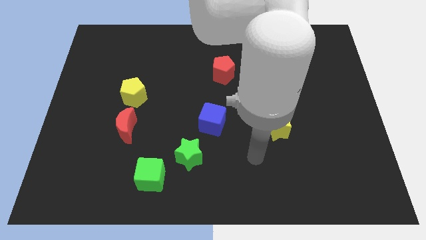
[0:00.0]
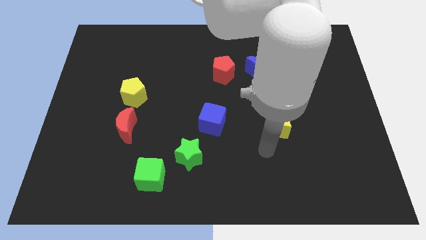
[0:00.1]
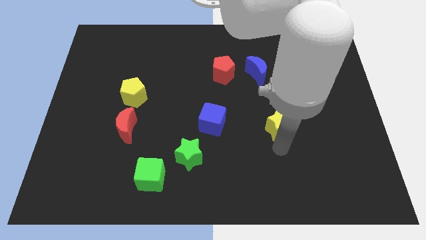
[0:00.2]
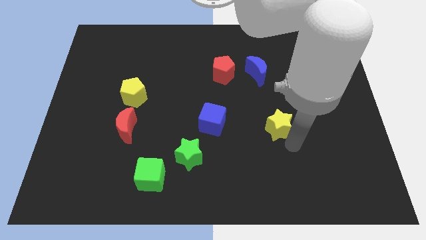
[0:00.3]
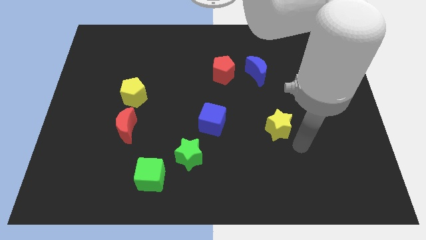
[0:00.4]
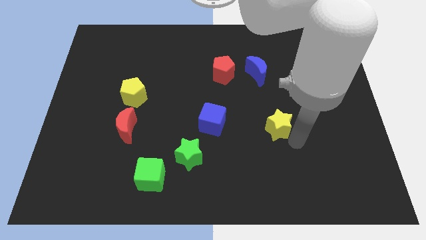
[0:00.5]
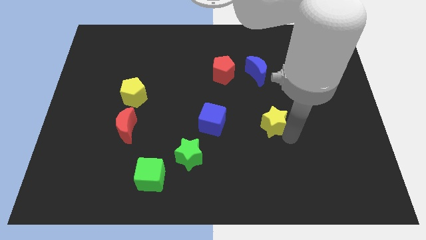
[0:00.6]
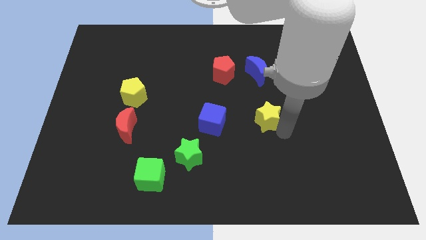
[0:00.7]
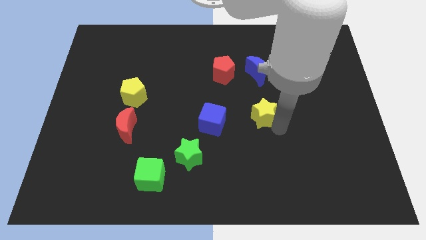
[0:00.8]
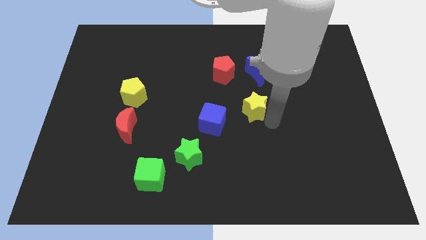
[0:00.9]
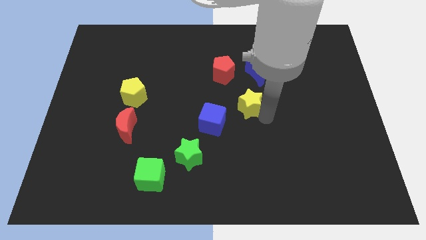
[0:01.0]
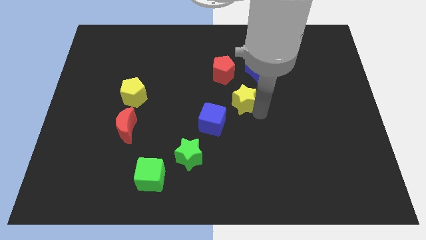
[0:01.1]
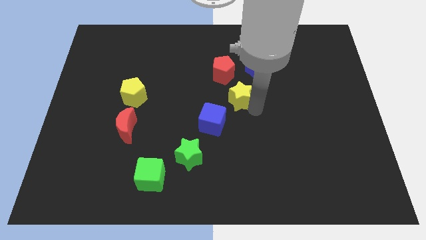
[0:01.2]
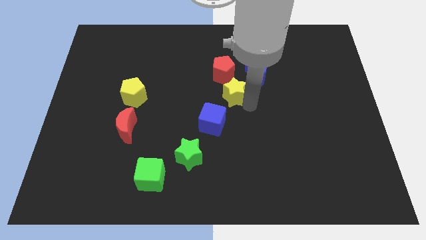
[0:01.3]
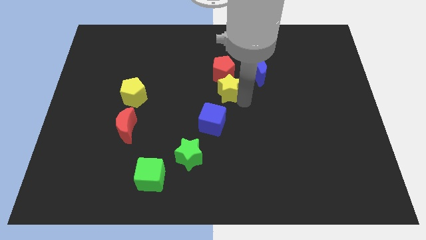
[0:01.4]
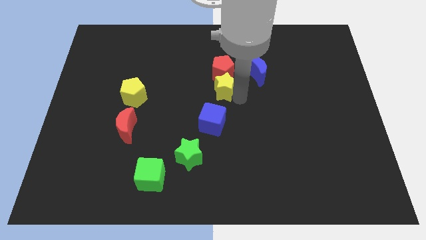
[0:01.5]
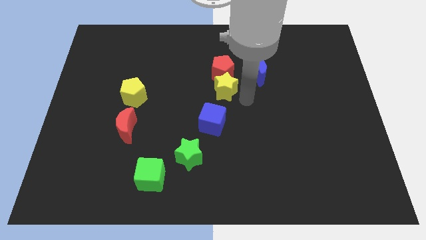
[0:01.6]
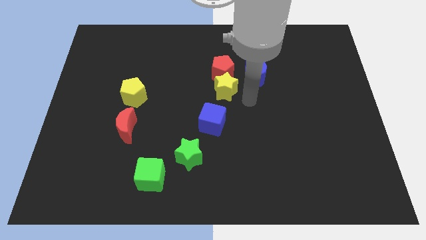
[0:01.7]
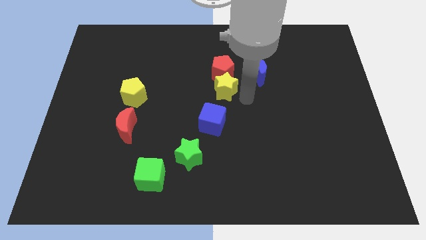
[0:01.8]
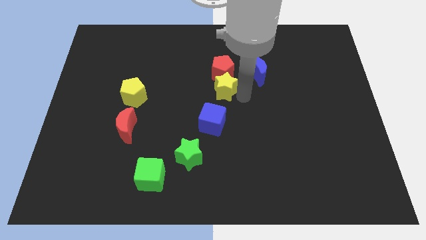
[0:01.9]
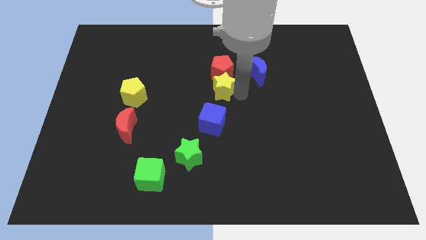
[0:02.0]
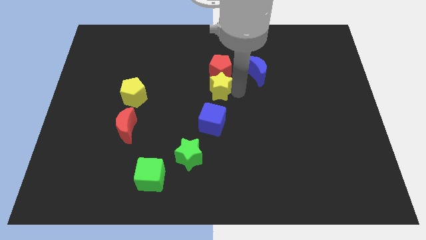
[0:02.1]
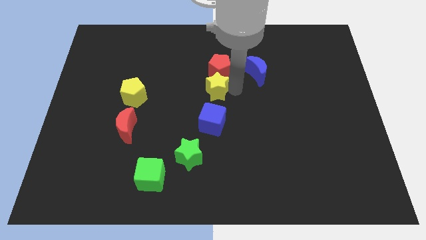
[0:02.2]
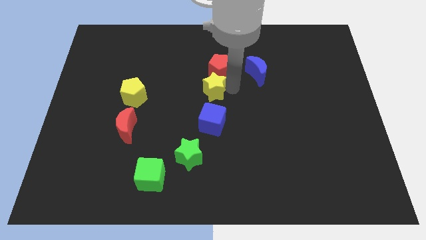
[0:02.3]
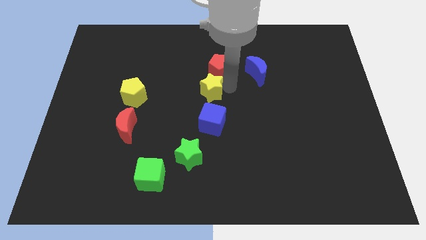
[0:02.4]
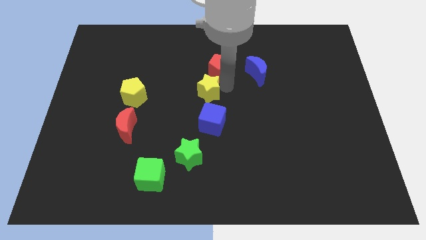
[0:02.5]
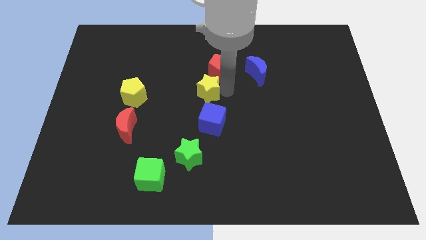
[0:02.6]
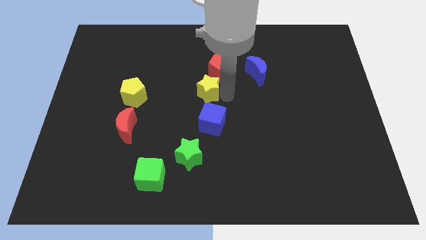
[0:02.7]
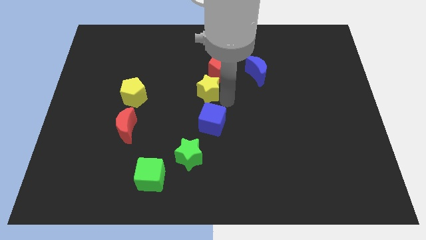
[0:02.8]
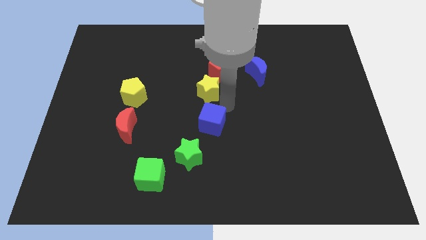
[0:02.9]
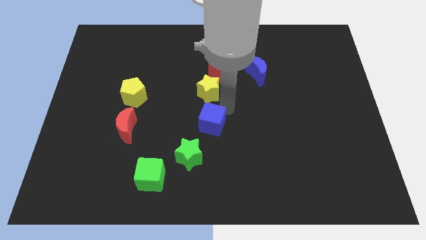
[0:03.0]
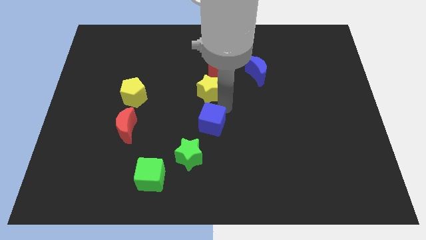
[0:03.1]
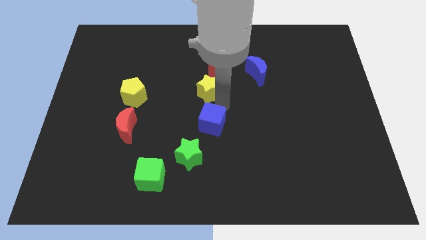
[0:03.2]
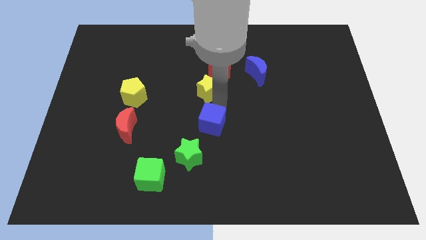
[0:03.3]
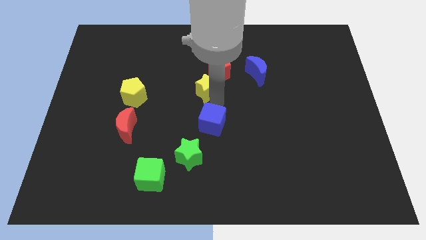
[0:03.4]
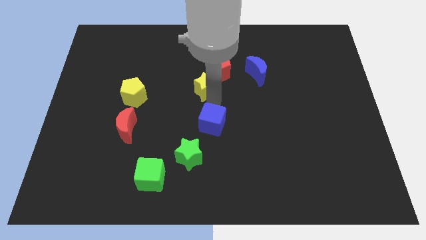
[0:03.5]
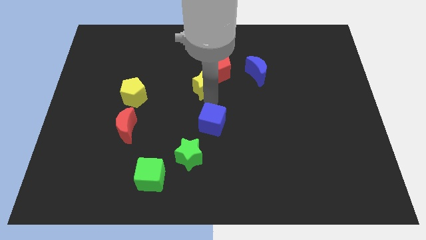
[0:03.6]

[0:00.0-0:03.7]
move the yellow star upwards and to the left diagonally

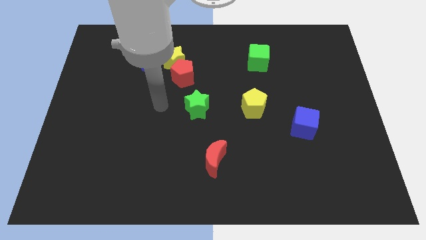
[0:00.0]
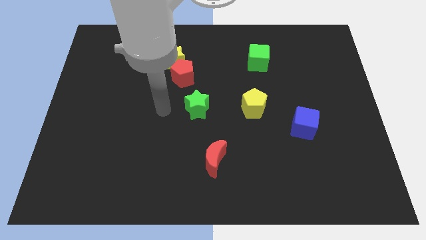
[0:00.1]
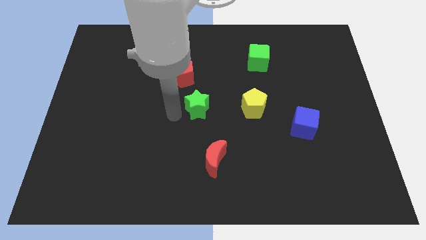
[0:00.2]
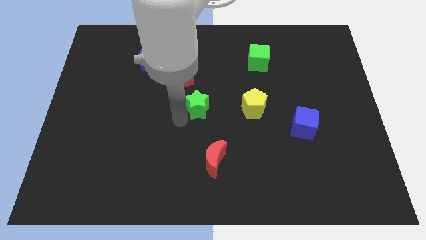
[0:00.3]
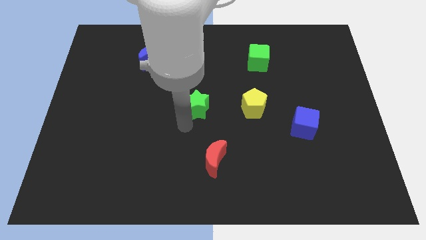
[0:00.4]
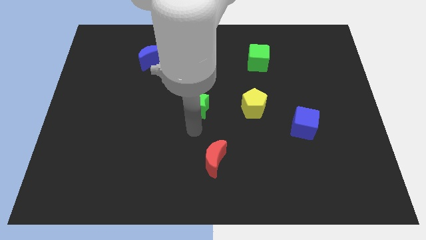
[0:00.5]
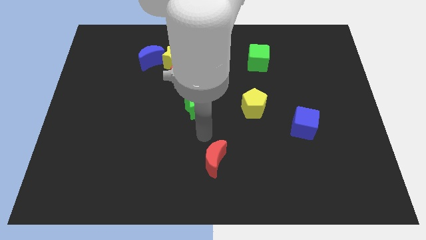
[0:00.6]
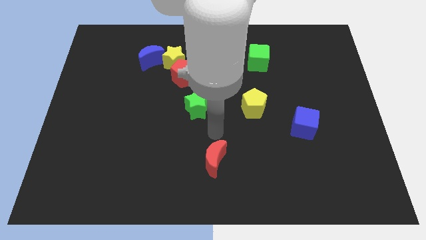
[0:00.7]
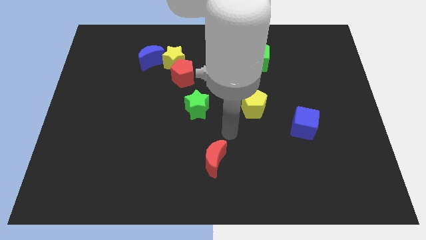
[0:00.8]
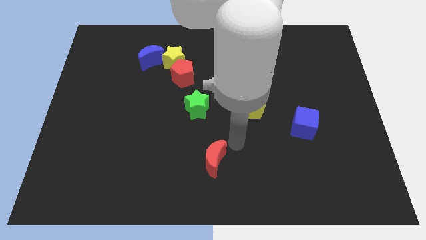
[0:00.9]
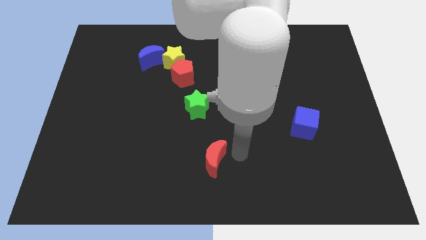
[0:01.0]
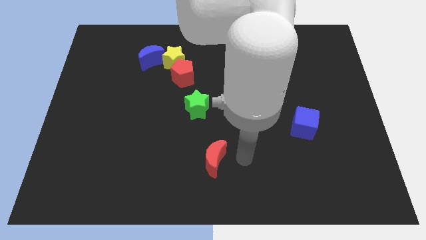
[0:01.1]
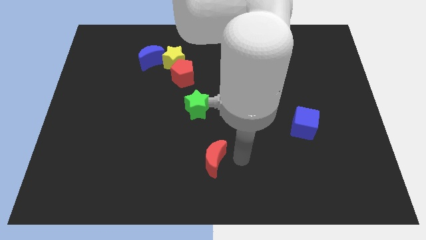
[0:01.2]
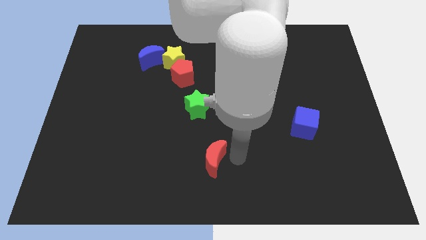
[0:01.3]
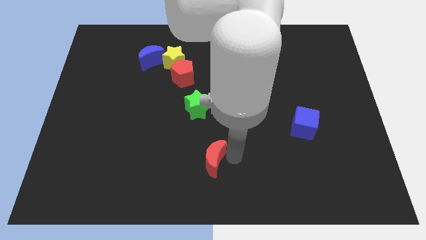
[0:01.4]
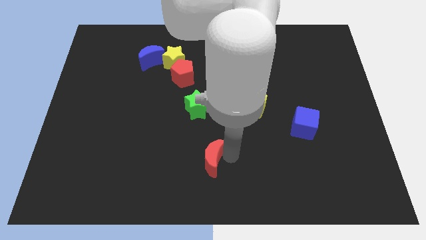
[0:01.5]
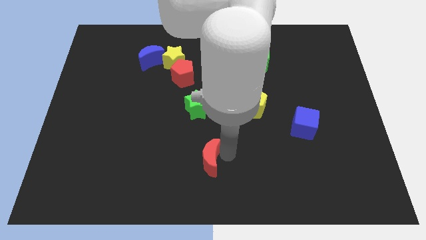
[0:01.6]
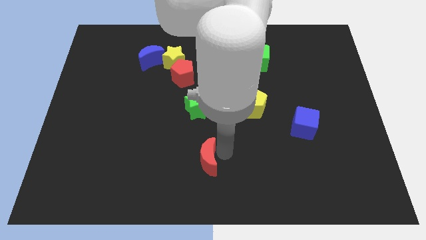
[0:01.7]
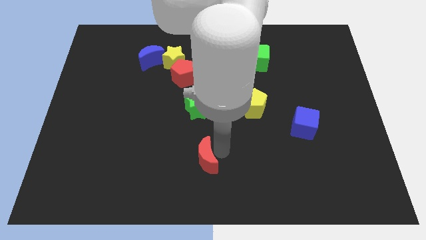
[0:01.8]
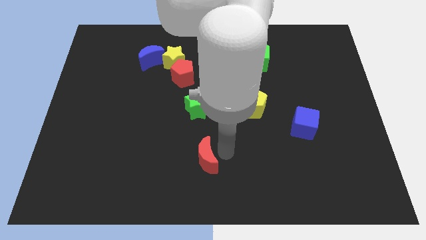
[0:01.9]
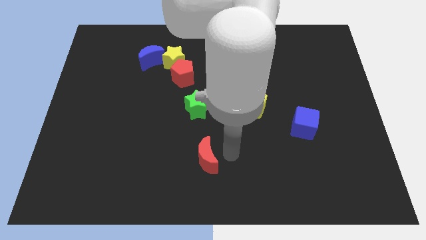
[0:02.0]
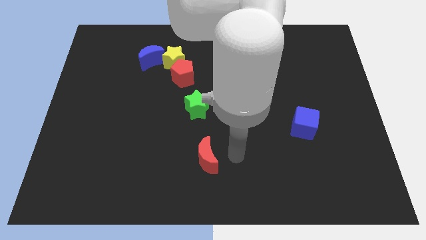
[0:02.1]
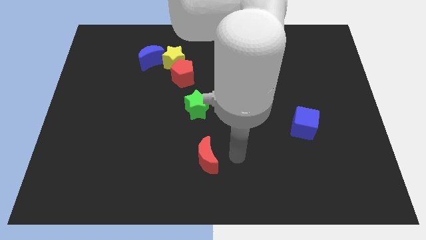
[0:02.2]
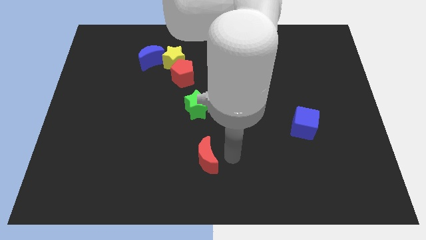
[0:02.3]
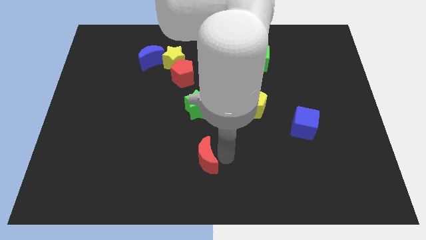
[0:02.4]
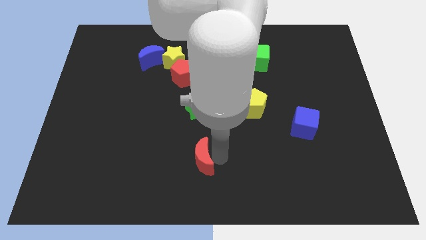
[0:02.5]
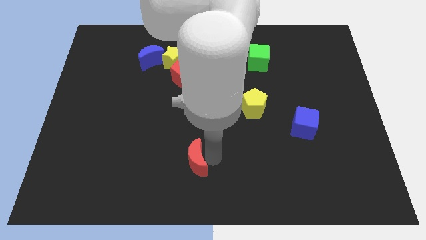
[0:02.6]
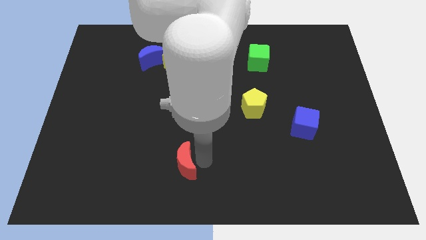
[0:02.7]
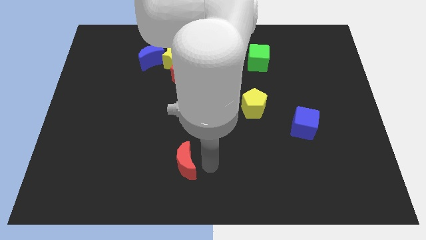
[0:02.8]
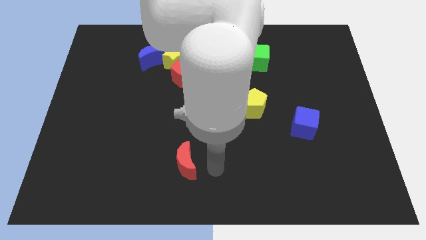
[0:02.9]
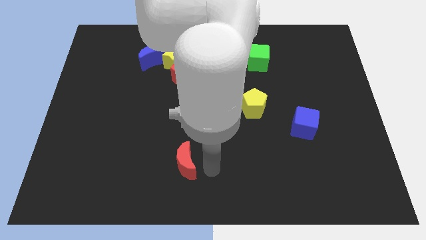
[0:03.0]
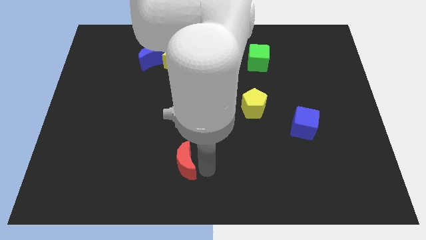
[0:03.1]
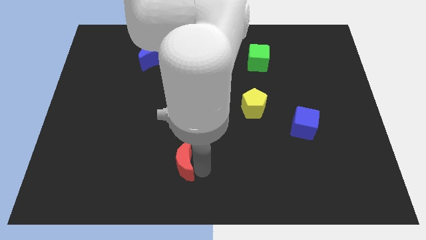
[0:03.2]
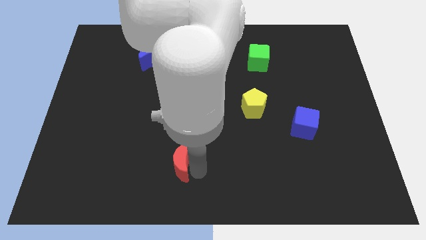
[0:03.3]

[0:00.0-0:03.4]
push the red moon slightly left

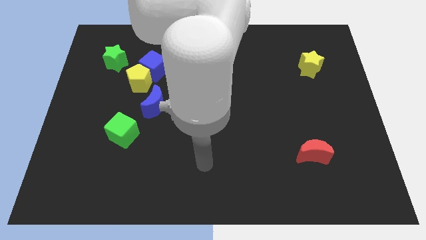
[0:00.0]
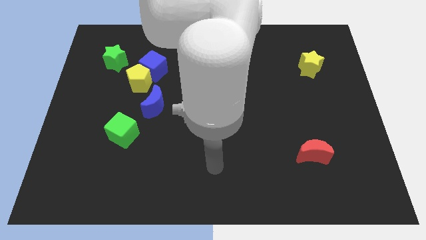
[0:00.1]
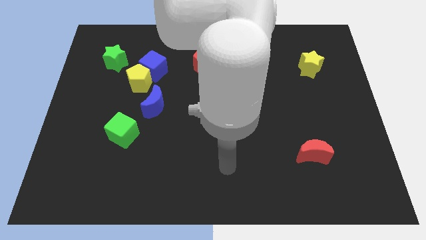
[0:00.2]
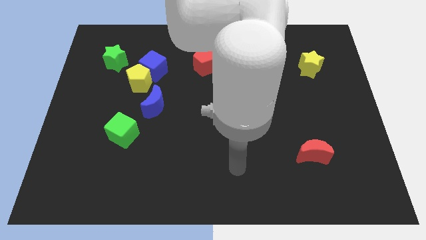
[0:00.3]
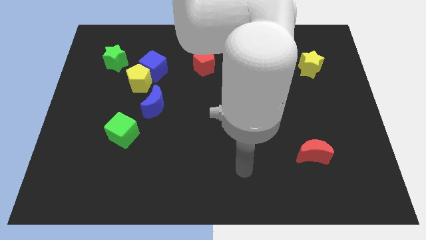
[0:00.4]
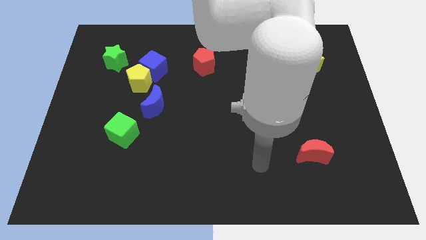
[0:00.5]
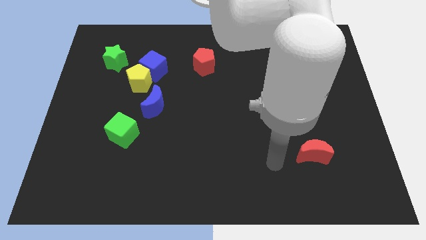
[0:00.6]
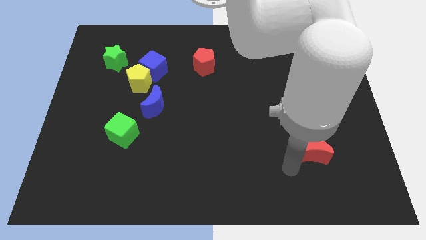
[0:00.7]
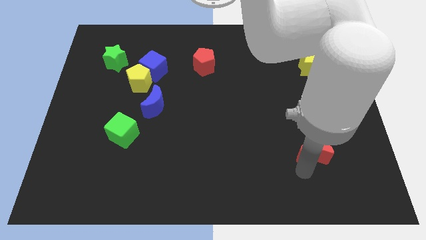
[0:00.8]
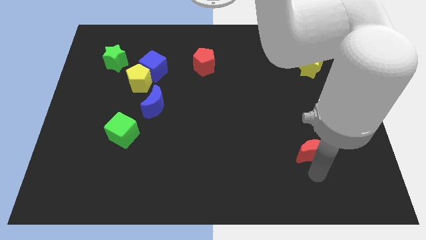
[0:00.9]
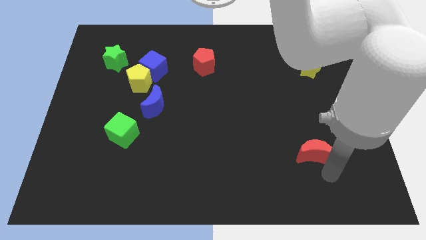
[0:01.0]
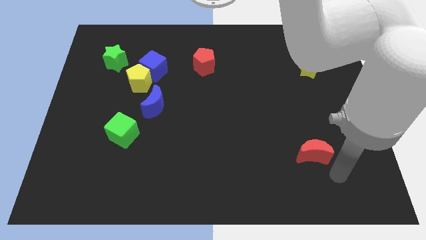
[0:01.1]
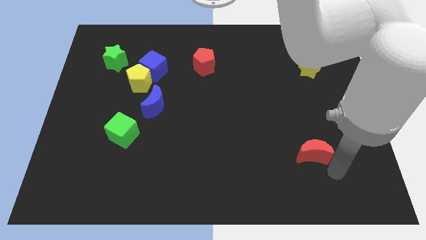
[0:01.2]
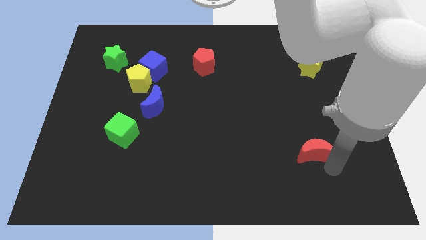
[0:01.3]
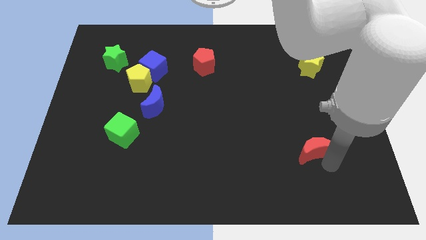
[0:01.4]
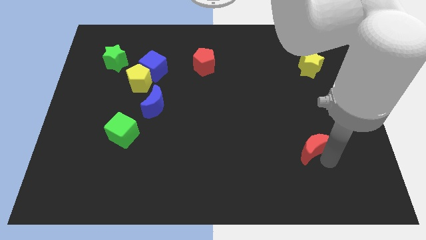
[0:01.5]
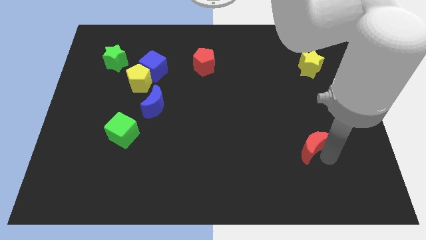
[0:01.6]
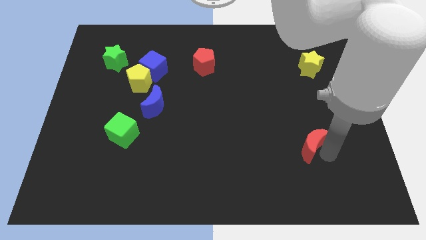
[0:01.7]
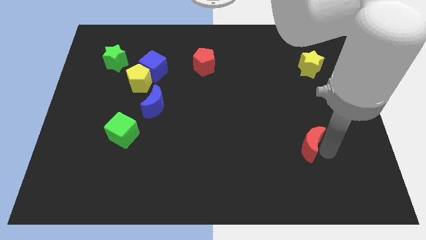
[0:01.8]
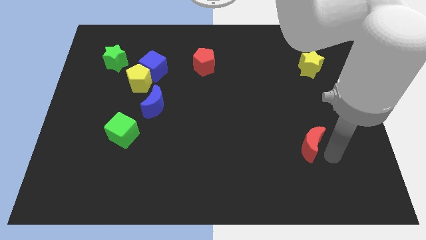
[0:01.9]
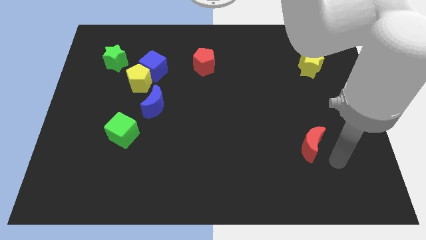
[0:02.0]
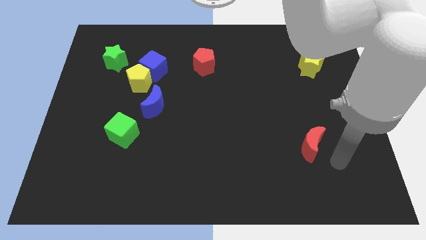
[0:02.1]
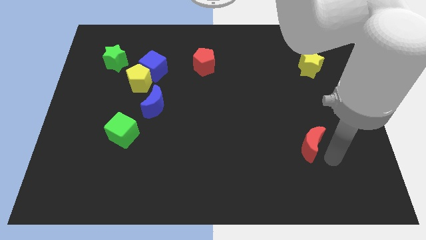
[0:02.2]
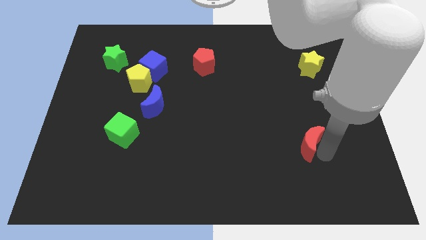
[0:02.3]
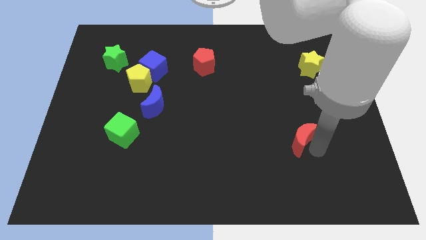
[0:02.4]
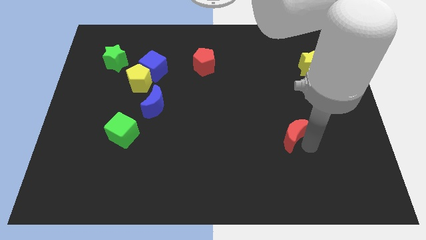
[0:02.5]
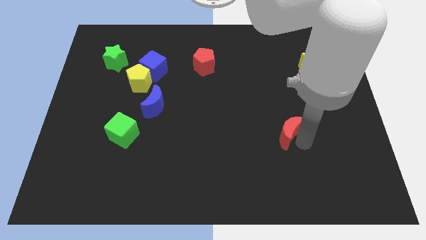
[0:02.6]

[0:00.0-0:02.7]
push the red moon up and to the left diagonally a bit
